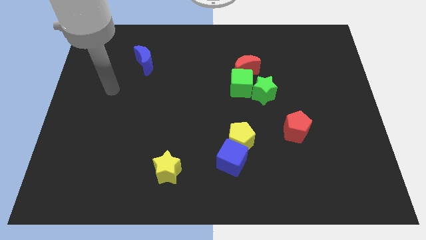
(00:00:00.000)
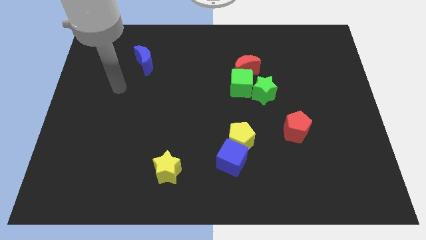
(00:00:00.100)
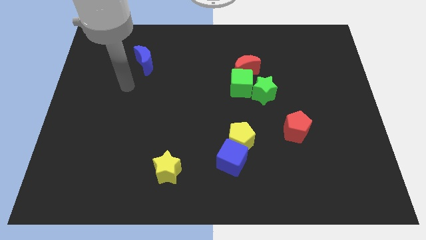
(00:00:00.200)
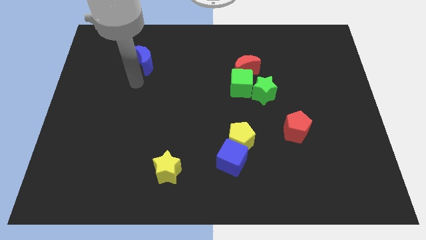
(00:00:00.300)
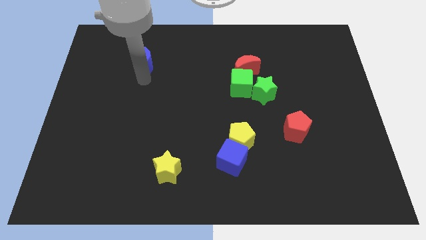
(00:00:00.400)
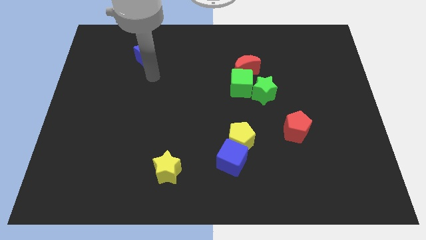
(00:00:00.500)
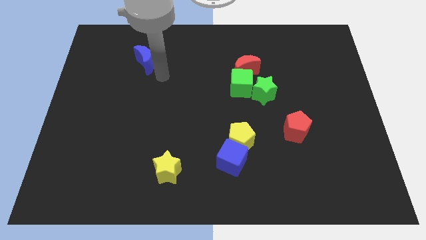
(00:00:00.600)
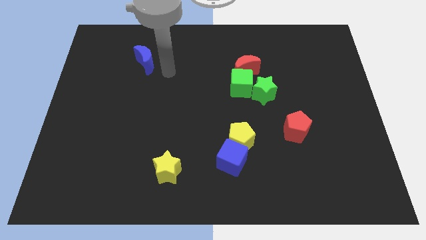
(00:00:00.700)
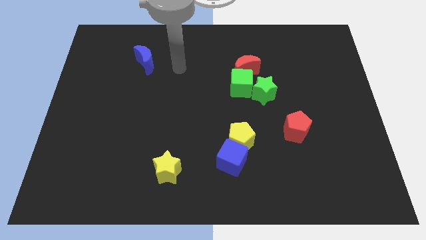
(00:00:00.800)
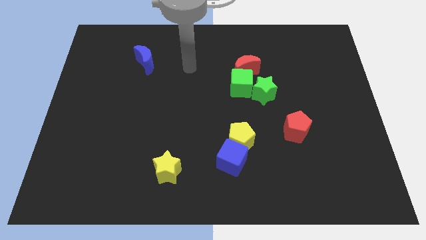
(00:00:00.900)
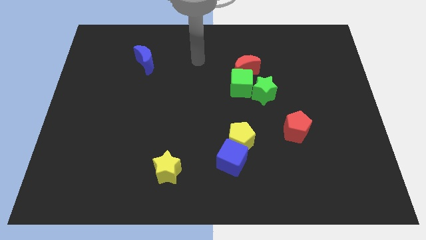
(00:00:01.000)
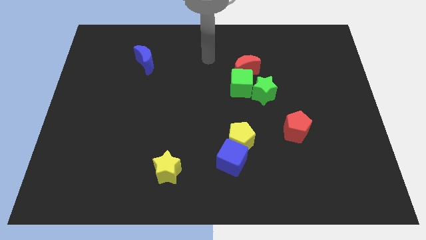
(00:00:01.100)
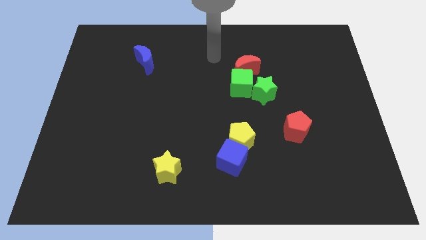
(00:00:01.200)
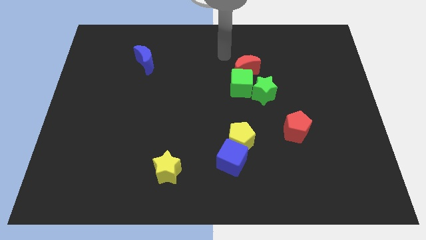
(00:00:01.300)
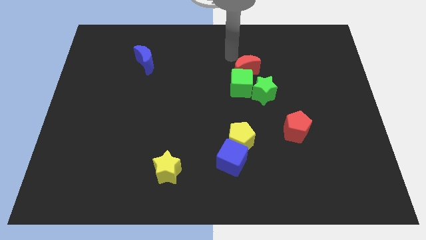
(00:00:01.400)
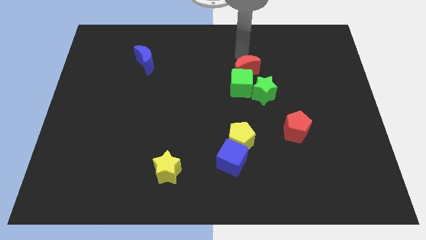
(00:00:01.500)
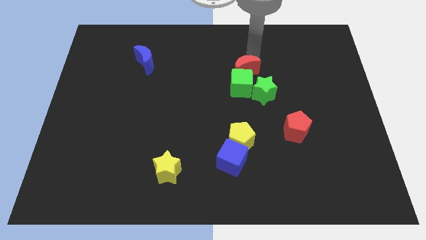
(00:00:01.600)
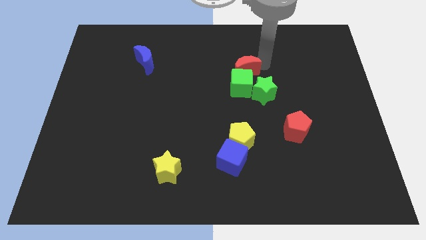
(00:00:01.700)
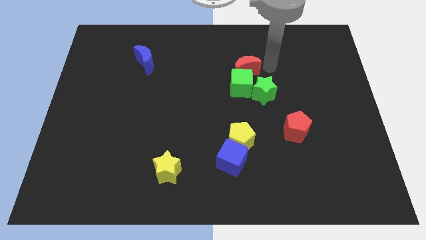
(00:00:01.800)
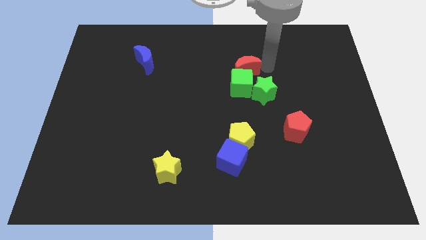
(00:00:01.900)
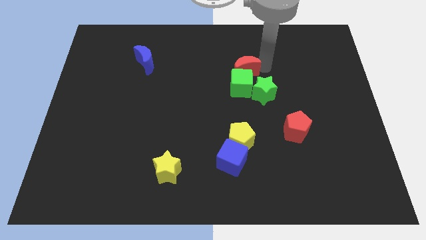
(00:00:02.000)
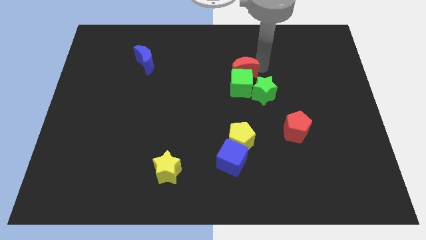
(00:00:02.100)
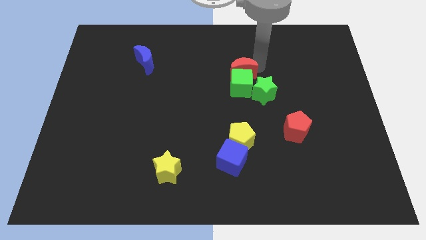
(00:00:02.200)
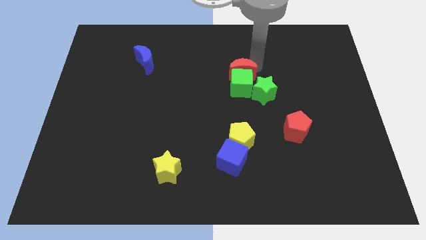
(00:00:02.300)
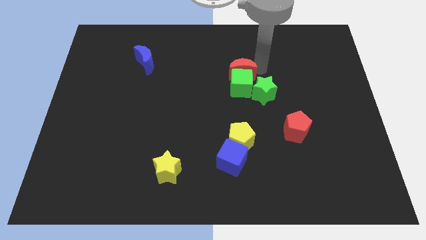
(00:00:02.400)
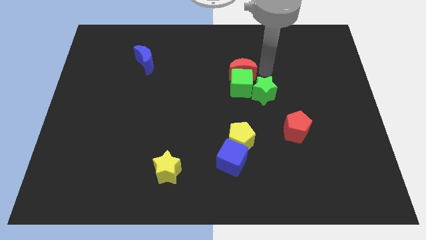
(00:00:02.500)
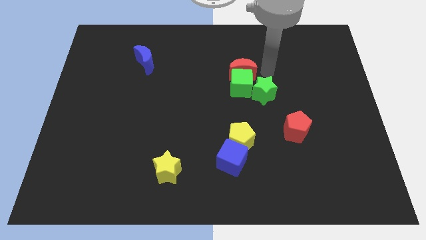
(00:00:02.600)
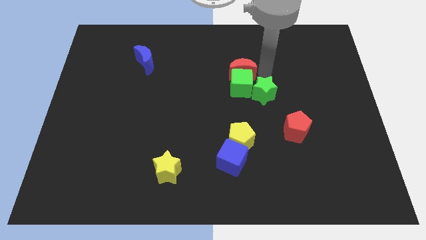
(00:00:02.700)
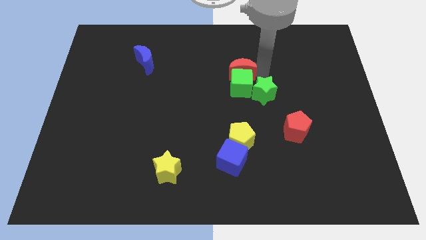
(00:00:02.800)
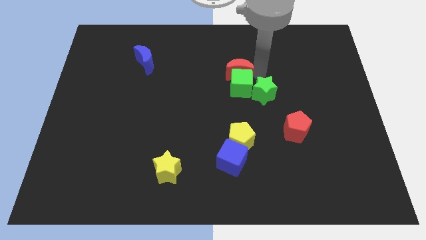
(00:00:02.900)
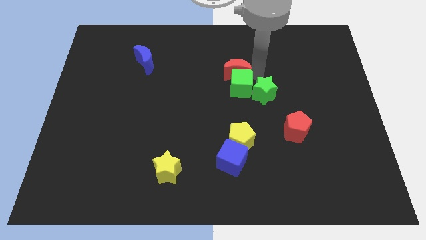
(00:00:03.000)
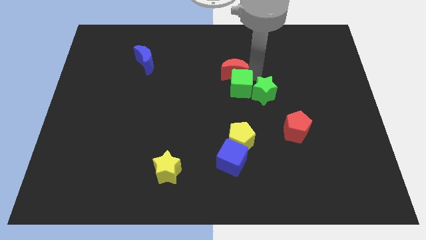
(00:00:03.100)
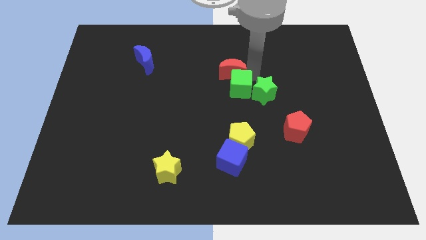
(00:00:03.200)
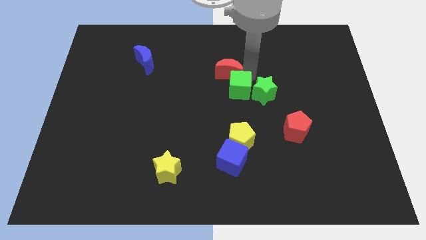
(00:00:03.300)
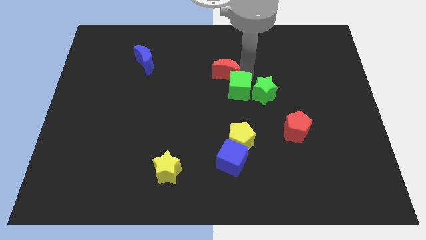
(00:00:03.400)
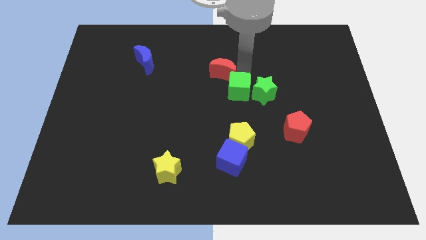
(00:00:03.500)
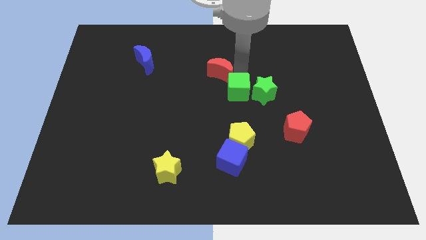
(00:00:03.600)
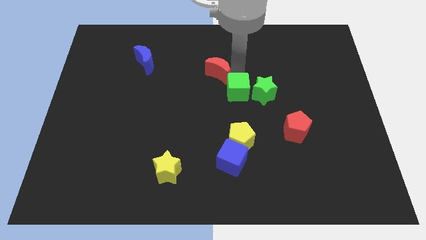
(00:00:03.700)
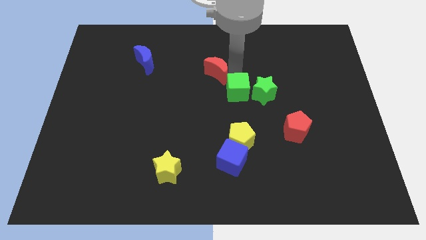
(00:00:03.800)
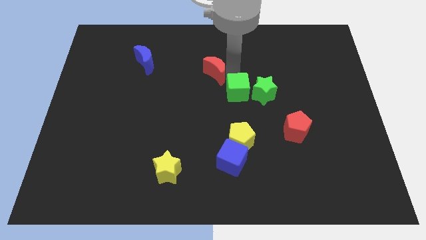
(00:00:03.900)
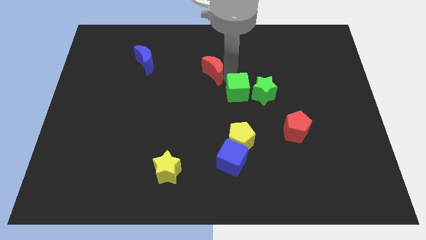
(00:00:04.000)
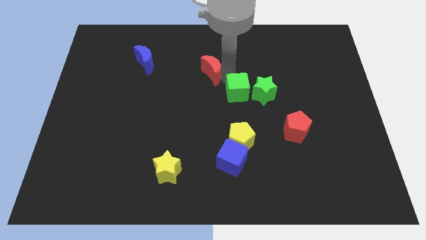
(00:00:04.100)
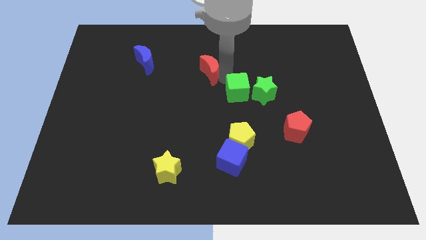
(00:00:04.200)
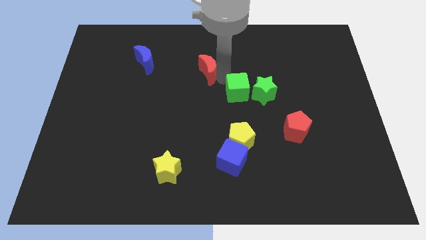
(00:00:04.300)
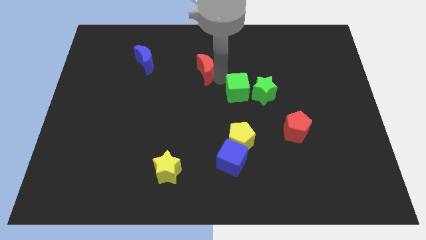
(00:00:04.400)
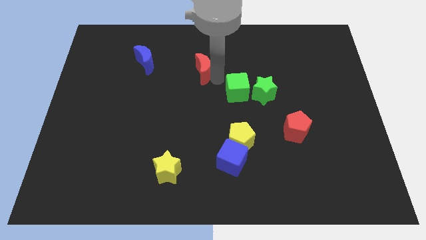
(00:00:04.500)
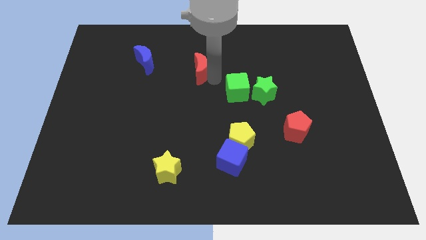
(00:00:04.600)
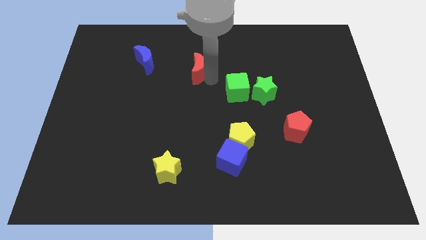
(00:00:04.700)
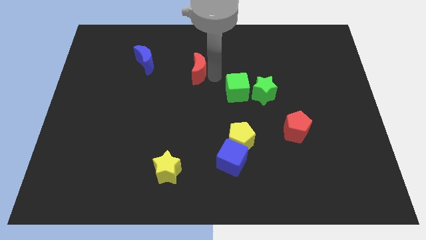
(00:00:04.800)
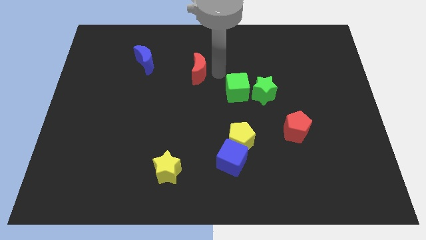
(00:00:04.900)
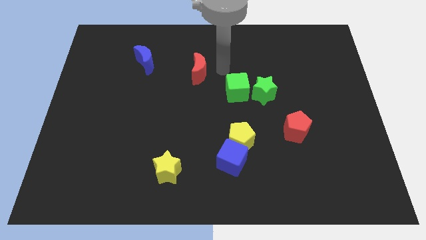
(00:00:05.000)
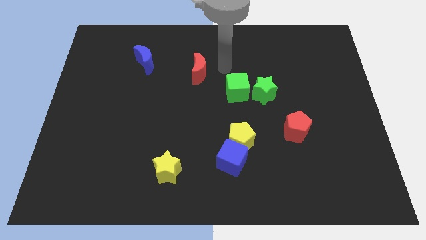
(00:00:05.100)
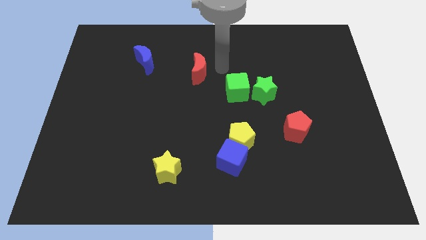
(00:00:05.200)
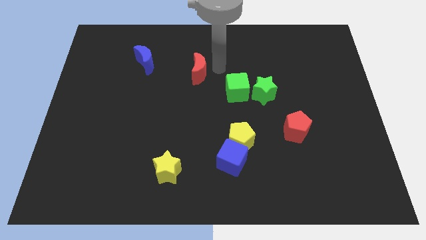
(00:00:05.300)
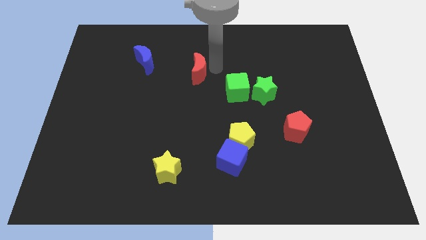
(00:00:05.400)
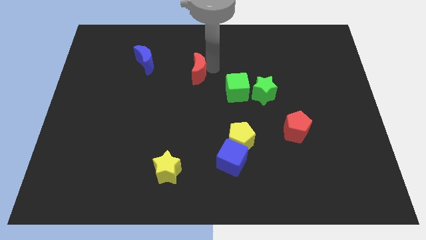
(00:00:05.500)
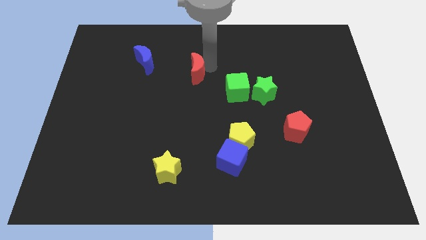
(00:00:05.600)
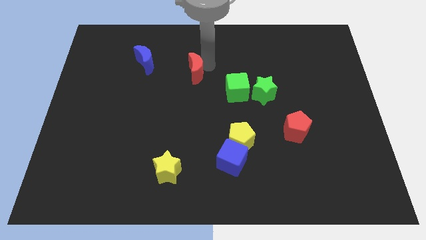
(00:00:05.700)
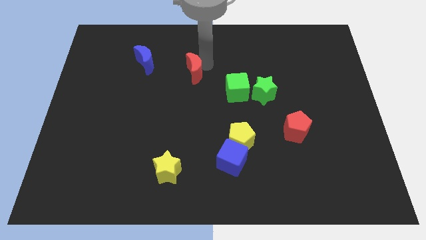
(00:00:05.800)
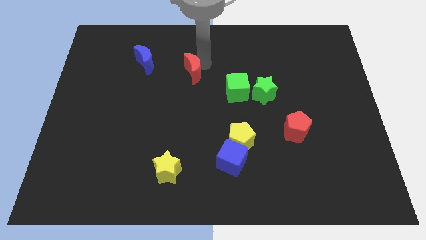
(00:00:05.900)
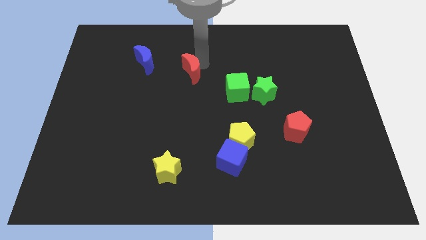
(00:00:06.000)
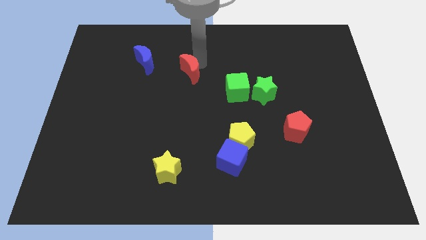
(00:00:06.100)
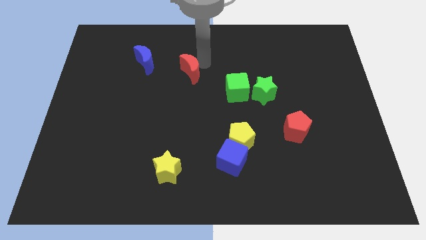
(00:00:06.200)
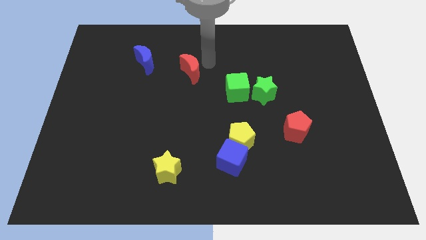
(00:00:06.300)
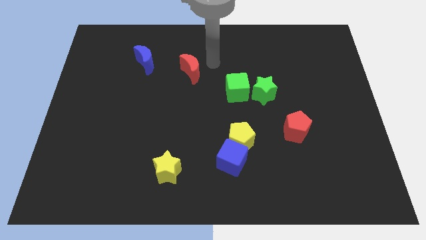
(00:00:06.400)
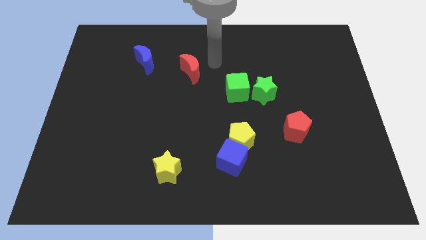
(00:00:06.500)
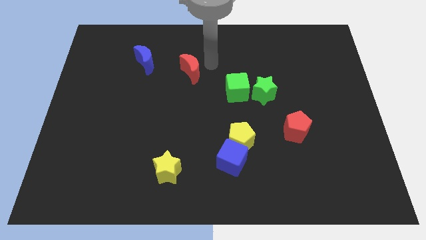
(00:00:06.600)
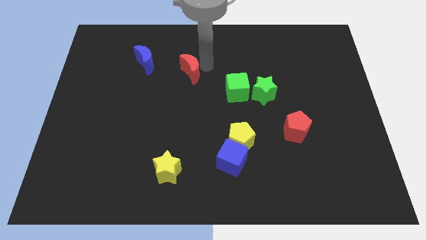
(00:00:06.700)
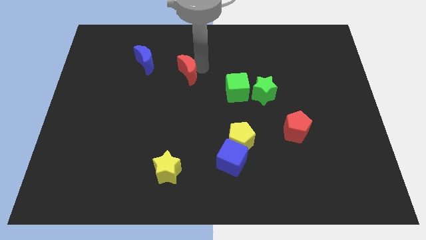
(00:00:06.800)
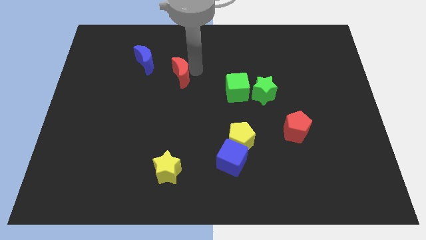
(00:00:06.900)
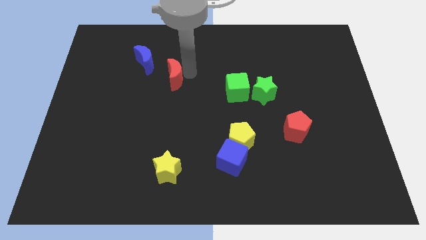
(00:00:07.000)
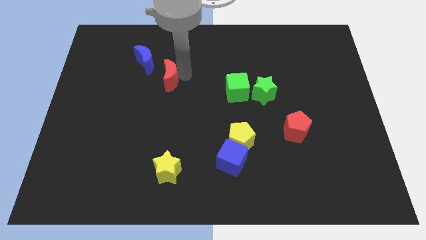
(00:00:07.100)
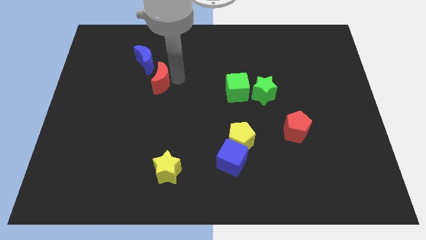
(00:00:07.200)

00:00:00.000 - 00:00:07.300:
move the red moon left

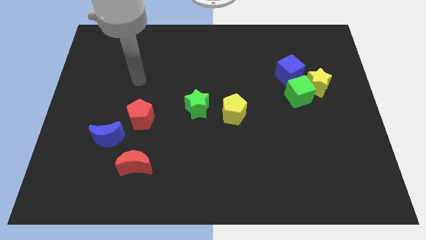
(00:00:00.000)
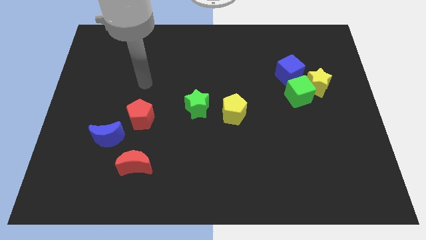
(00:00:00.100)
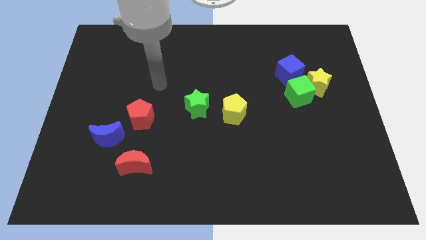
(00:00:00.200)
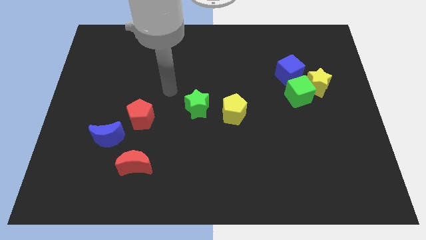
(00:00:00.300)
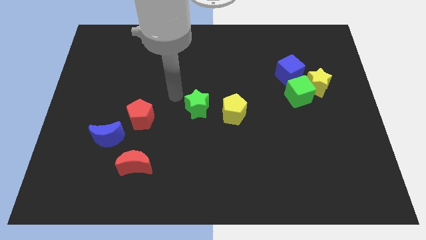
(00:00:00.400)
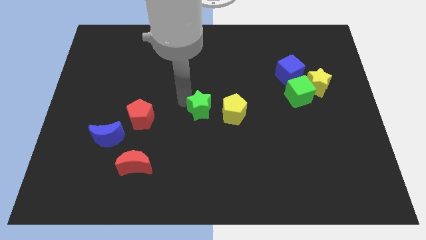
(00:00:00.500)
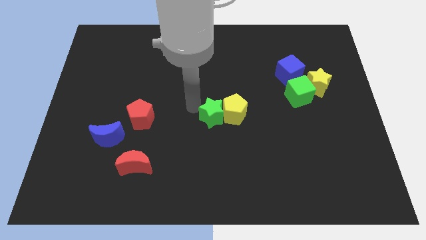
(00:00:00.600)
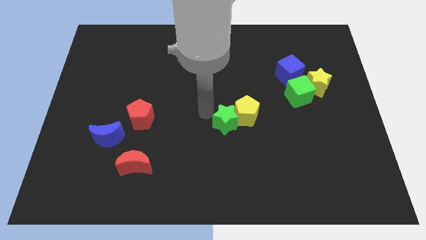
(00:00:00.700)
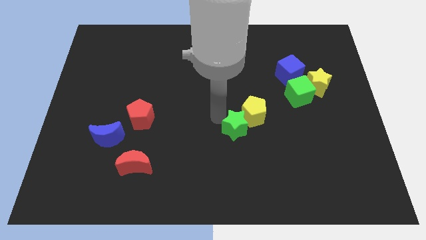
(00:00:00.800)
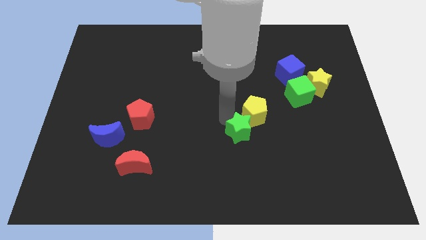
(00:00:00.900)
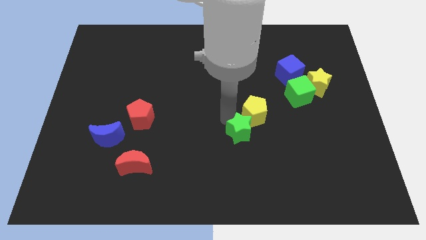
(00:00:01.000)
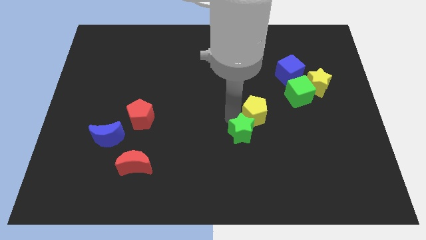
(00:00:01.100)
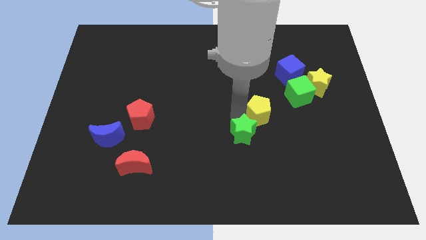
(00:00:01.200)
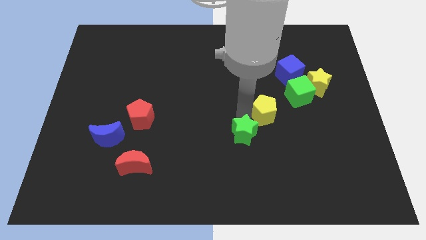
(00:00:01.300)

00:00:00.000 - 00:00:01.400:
slightly push the yellow pentagon to the right
